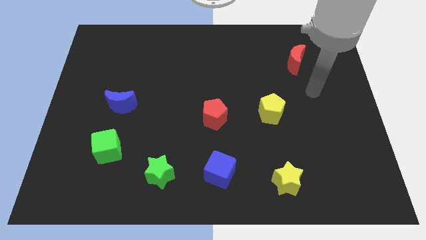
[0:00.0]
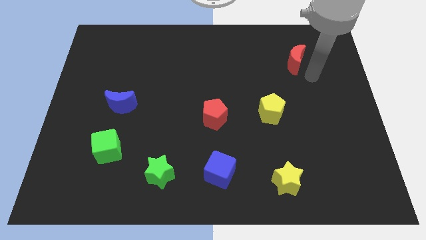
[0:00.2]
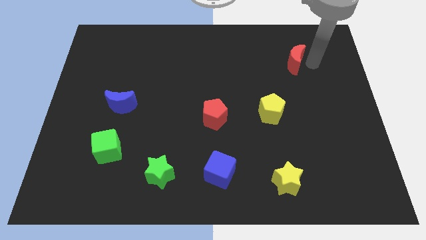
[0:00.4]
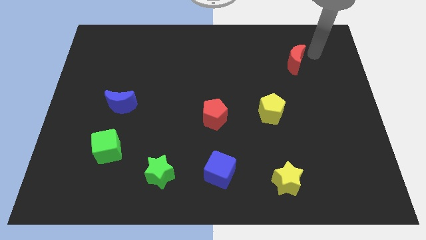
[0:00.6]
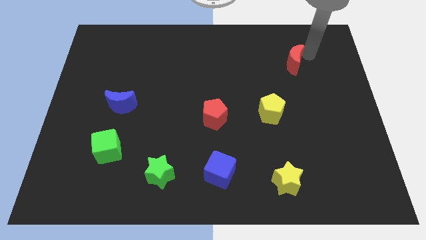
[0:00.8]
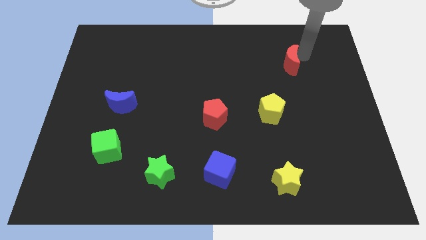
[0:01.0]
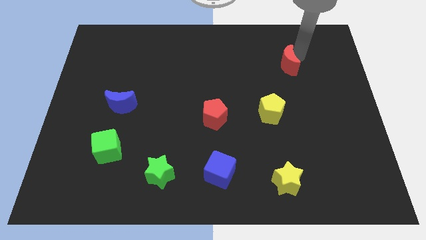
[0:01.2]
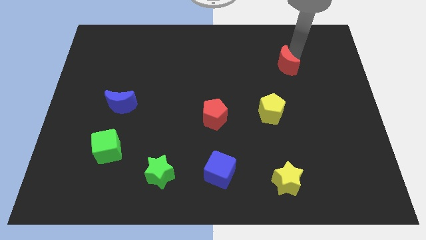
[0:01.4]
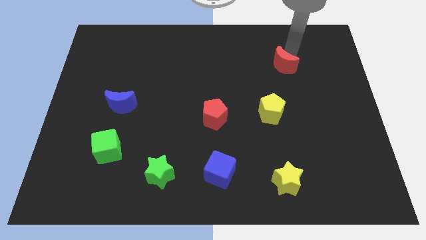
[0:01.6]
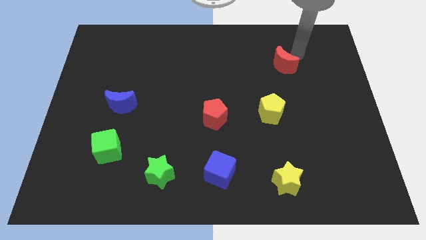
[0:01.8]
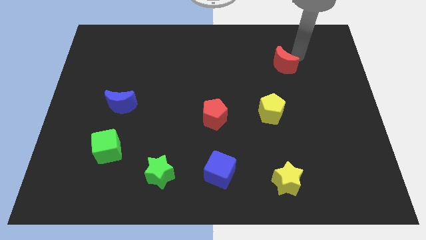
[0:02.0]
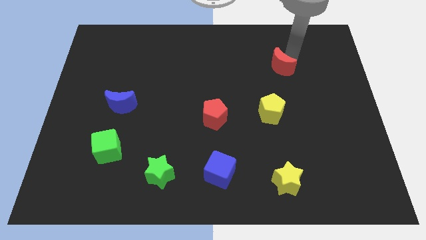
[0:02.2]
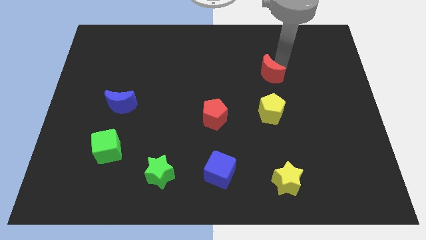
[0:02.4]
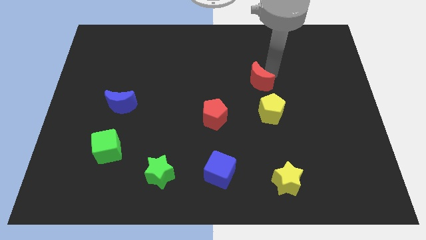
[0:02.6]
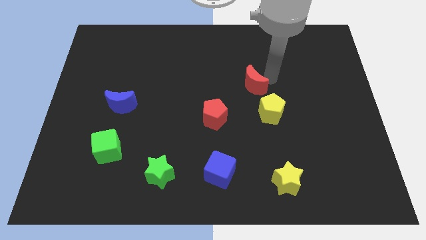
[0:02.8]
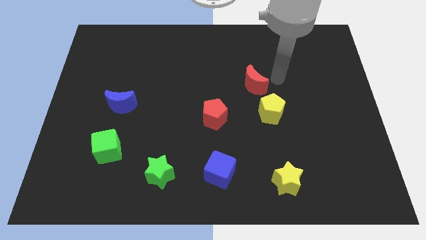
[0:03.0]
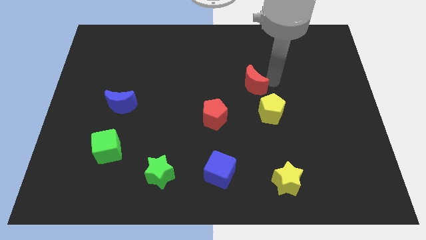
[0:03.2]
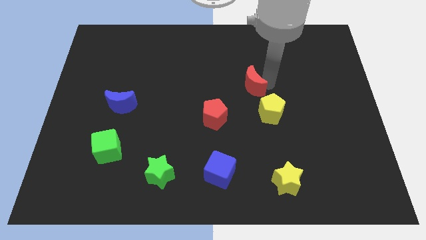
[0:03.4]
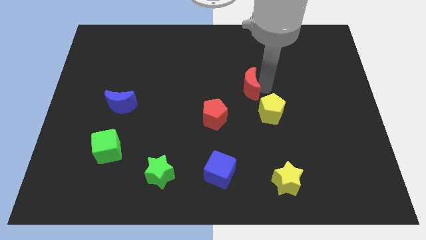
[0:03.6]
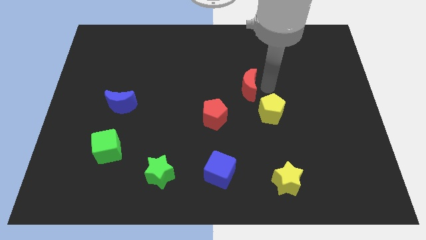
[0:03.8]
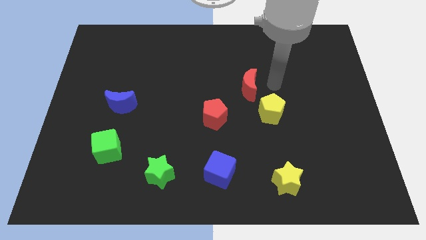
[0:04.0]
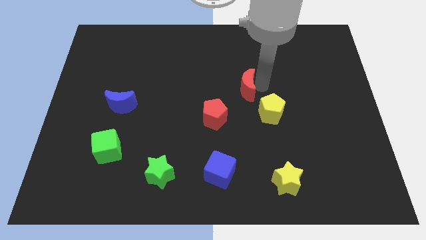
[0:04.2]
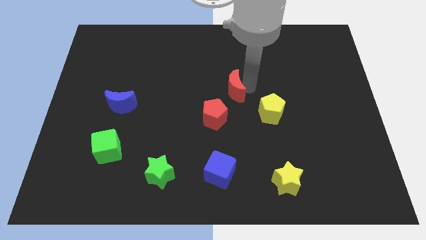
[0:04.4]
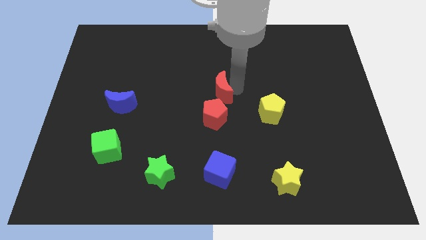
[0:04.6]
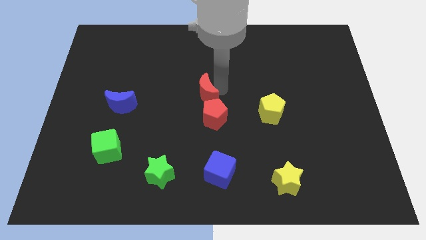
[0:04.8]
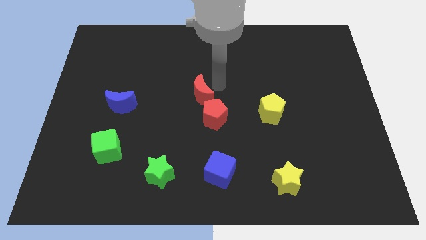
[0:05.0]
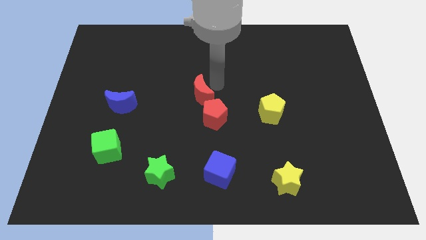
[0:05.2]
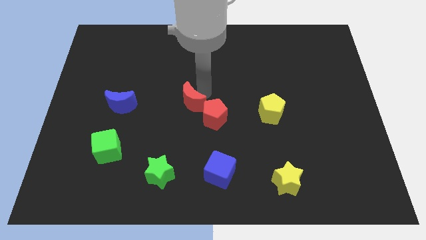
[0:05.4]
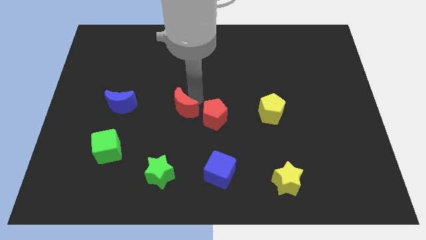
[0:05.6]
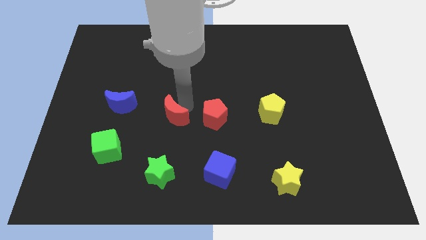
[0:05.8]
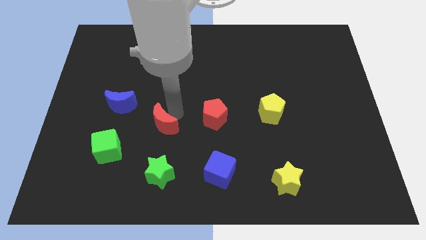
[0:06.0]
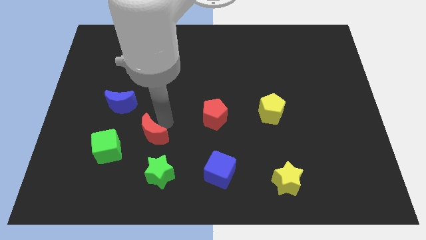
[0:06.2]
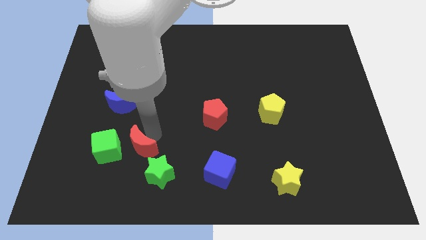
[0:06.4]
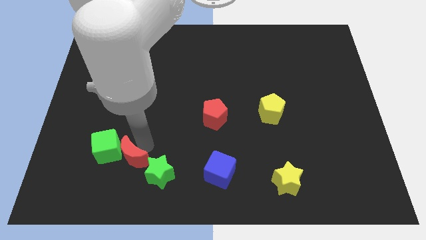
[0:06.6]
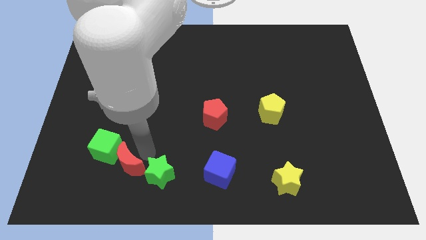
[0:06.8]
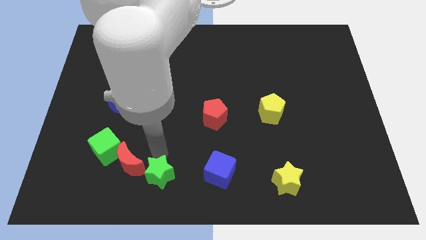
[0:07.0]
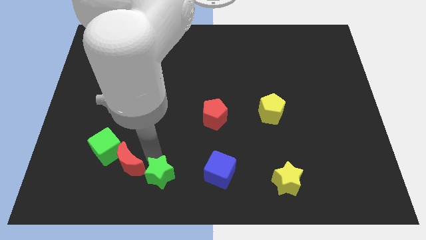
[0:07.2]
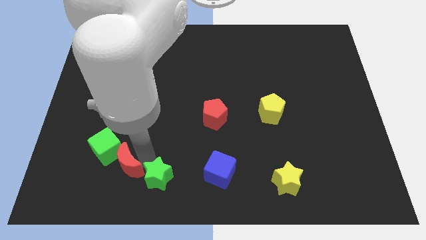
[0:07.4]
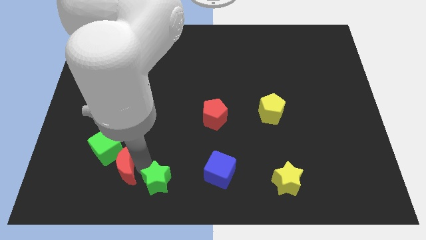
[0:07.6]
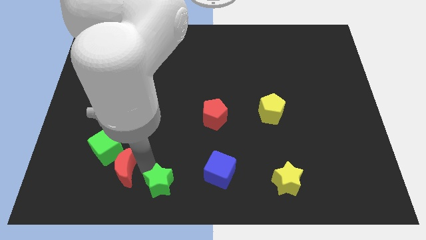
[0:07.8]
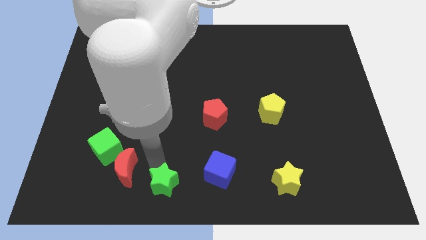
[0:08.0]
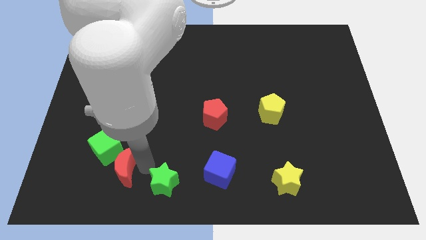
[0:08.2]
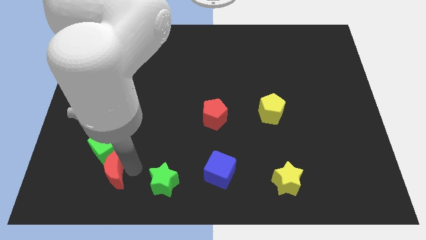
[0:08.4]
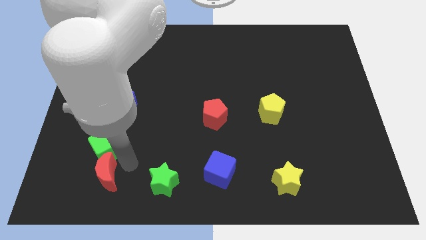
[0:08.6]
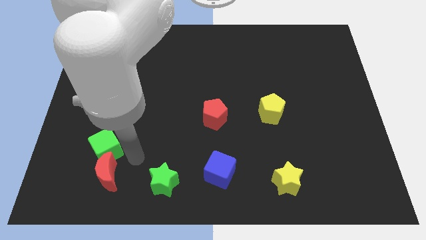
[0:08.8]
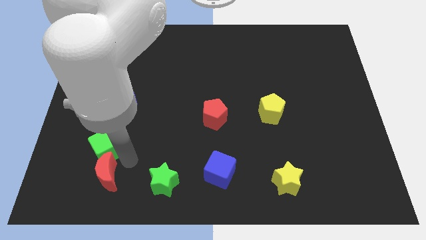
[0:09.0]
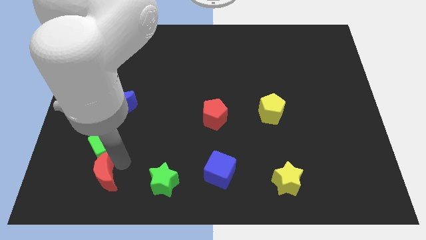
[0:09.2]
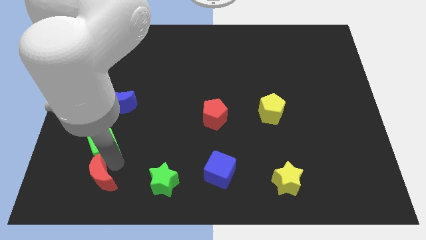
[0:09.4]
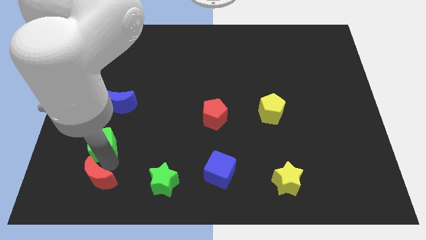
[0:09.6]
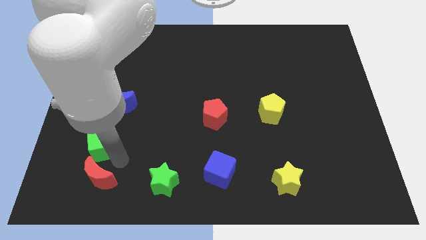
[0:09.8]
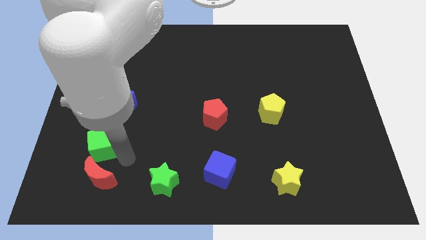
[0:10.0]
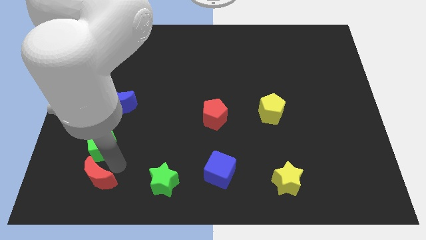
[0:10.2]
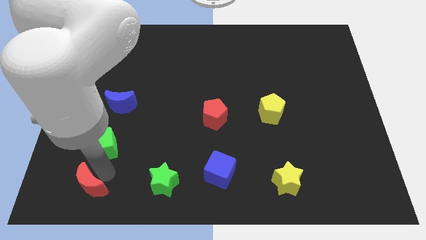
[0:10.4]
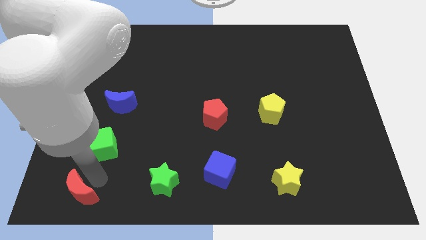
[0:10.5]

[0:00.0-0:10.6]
slide the red moon to the lower left corner

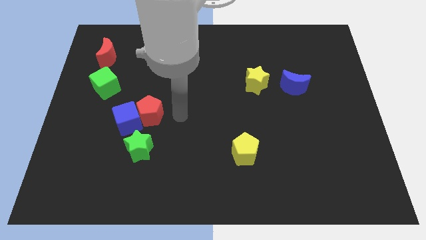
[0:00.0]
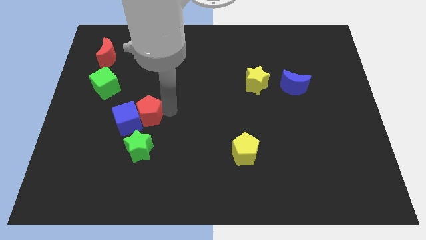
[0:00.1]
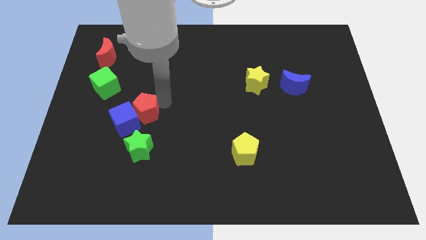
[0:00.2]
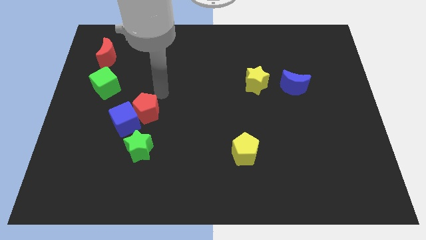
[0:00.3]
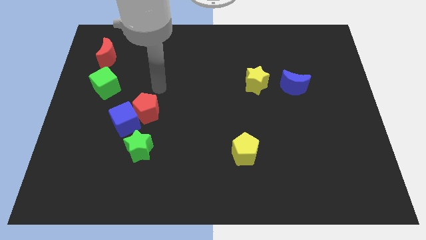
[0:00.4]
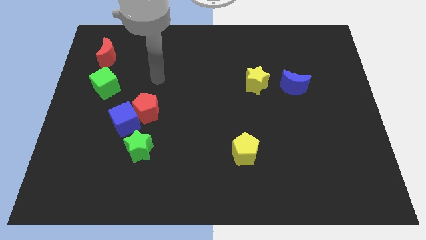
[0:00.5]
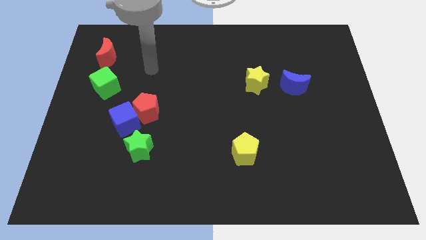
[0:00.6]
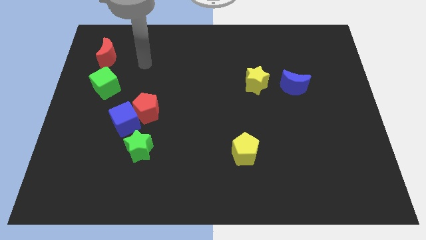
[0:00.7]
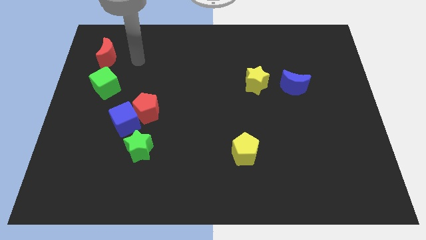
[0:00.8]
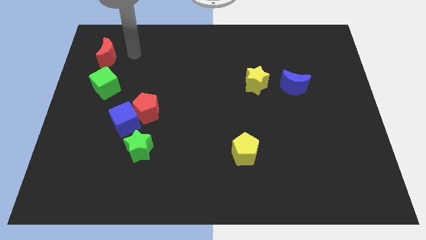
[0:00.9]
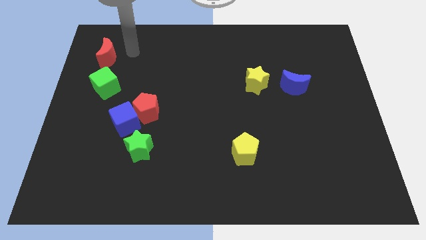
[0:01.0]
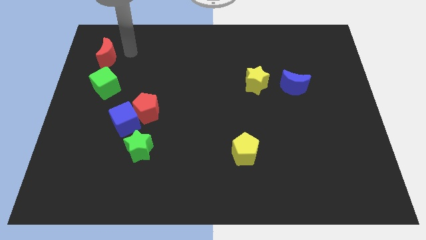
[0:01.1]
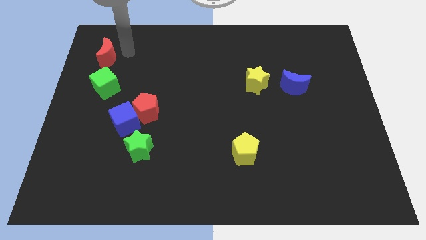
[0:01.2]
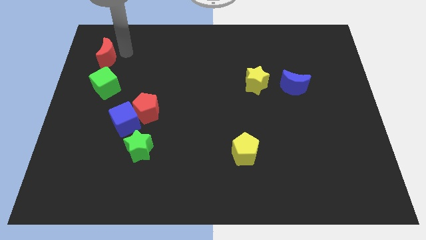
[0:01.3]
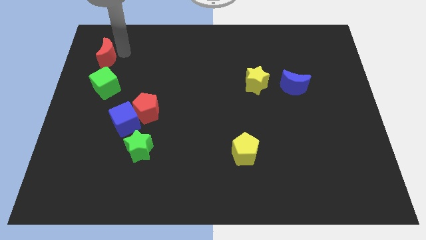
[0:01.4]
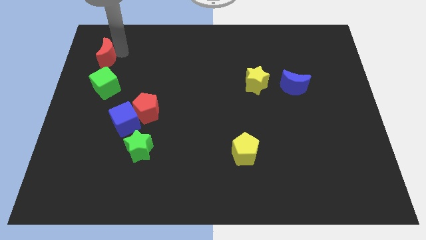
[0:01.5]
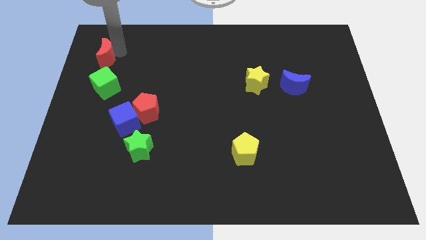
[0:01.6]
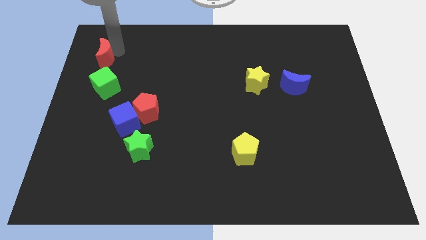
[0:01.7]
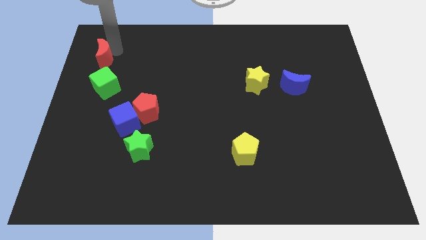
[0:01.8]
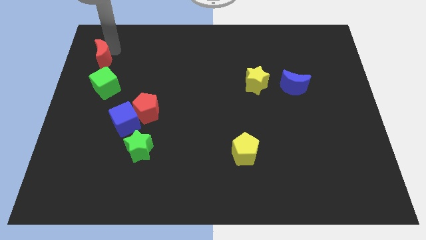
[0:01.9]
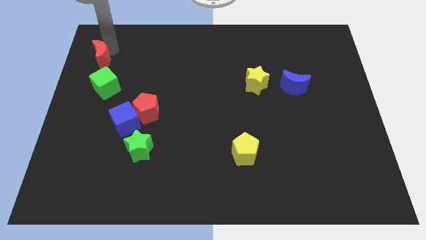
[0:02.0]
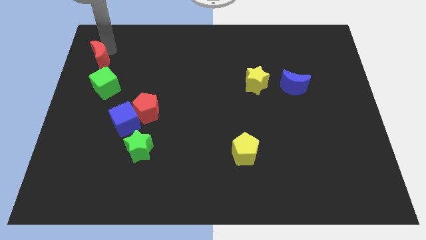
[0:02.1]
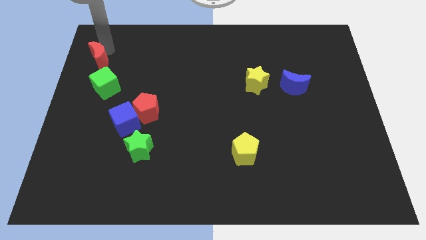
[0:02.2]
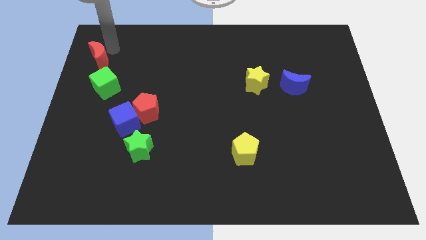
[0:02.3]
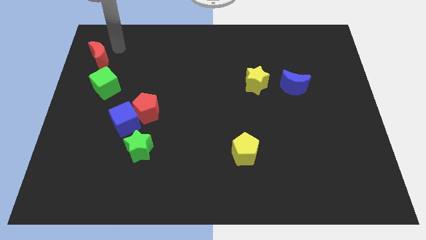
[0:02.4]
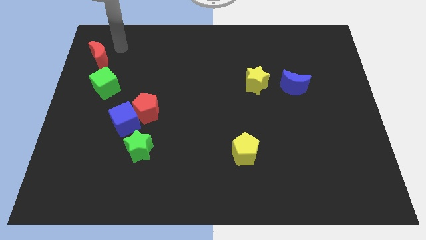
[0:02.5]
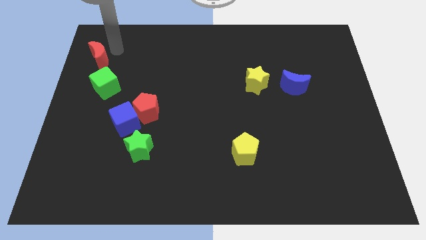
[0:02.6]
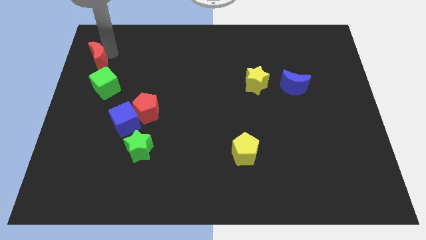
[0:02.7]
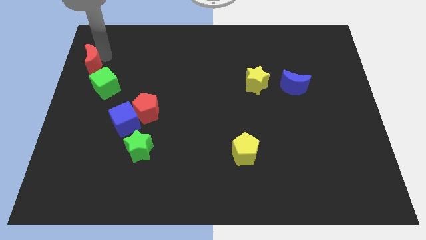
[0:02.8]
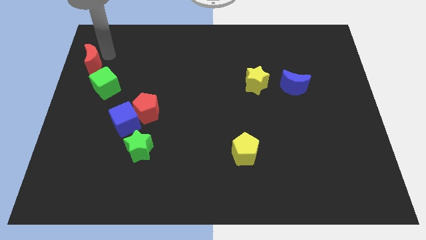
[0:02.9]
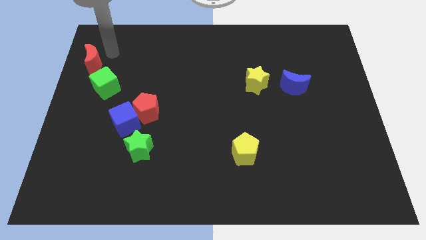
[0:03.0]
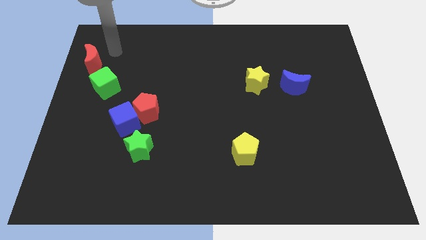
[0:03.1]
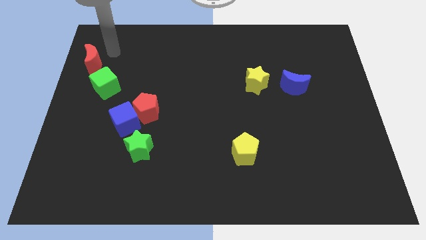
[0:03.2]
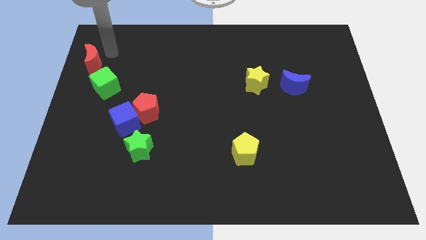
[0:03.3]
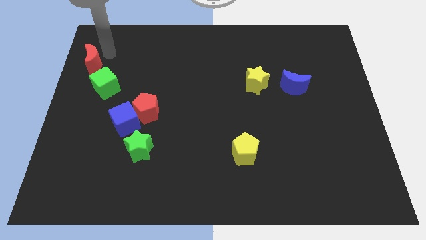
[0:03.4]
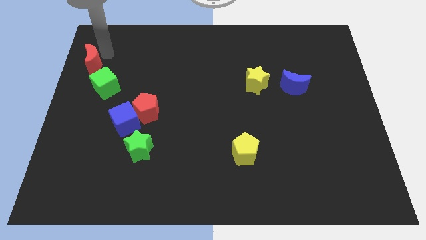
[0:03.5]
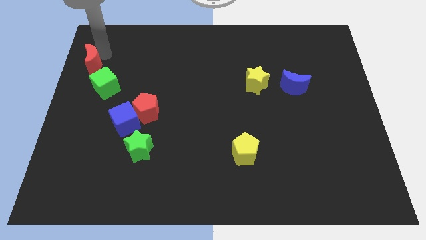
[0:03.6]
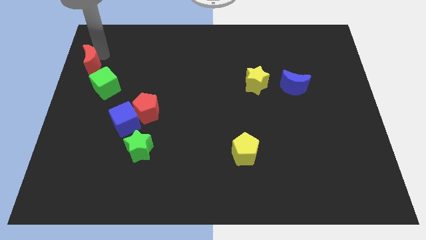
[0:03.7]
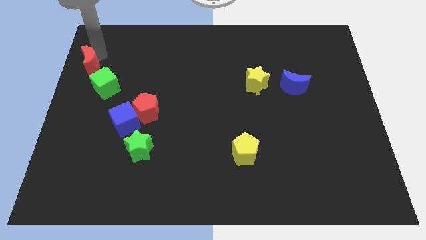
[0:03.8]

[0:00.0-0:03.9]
put the red moon to the center left
